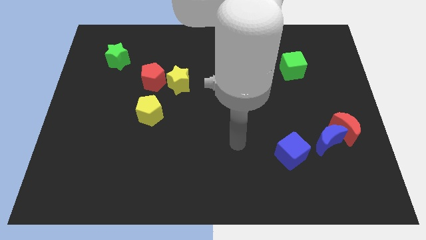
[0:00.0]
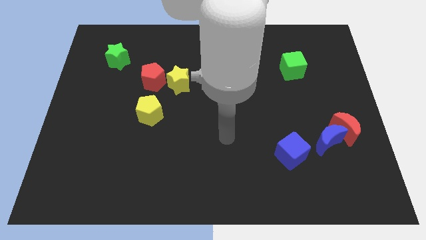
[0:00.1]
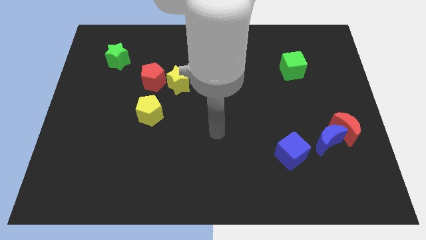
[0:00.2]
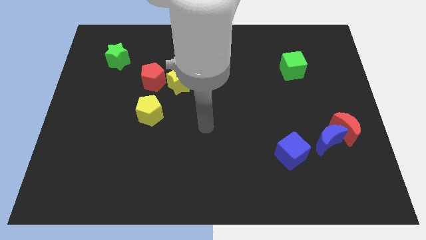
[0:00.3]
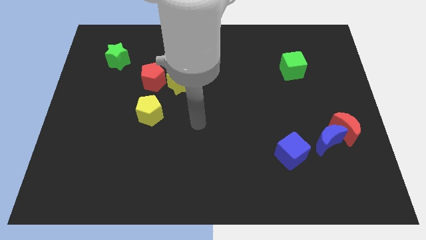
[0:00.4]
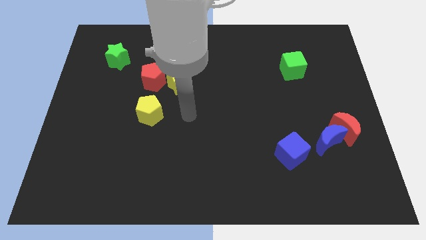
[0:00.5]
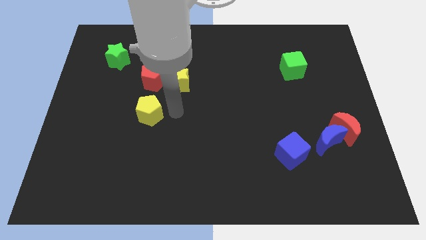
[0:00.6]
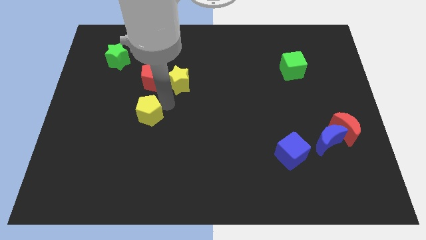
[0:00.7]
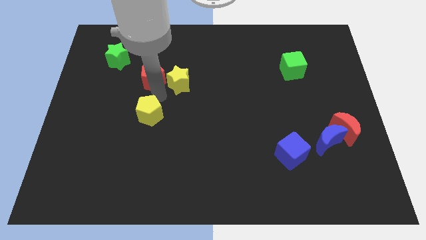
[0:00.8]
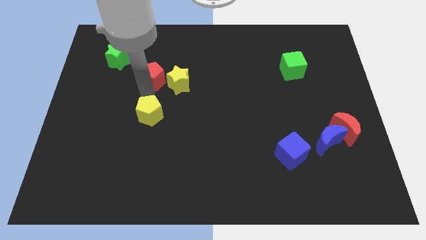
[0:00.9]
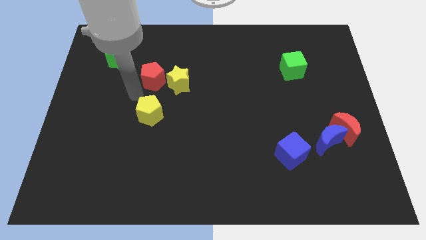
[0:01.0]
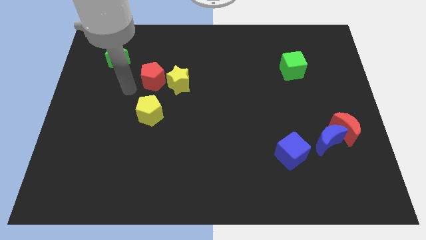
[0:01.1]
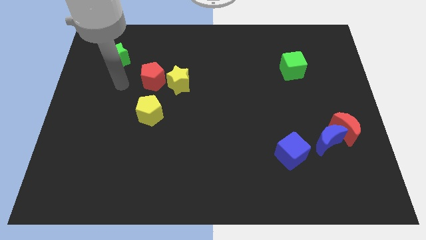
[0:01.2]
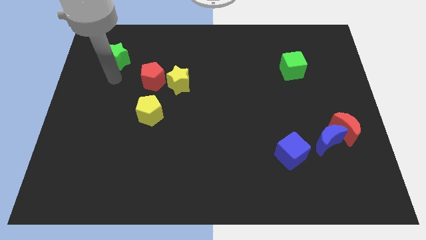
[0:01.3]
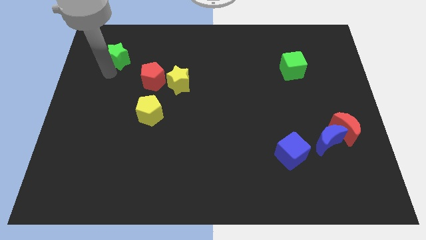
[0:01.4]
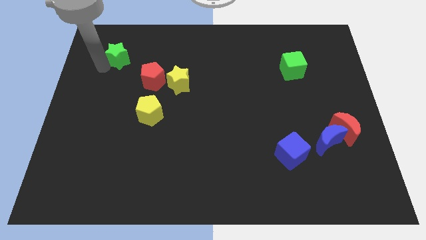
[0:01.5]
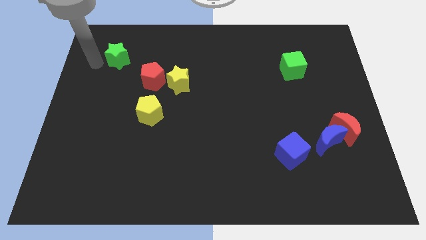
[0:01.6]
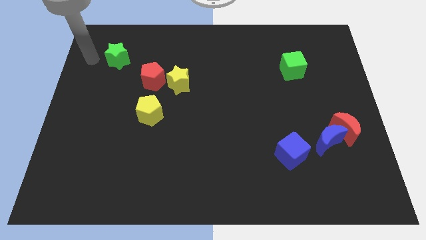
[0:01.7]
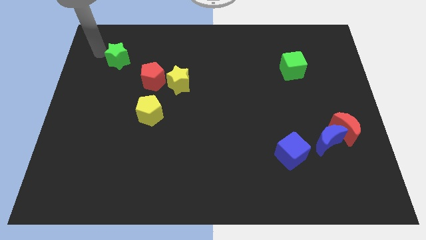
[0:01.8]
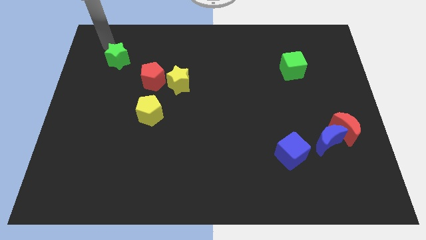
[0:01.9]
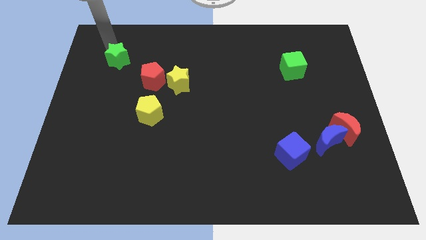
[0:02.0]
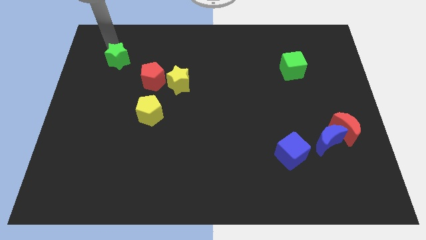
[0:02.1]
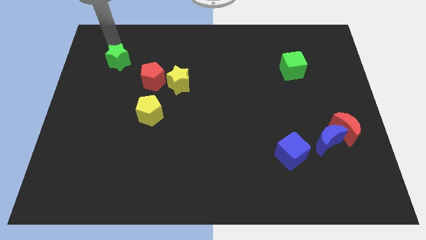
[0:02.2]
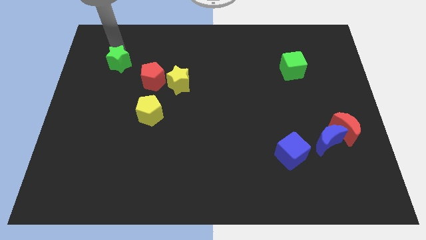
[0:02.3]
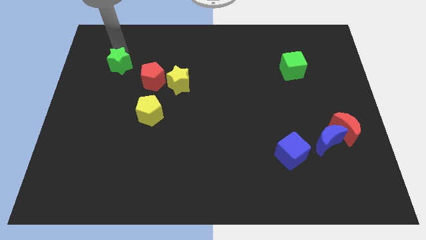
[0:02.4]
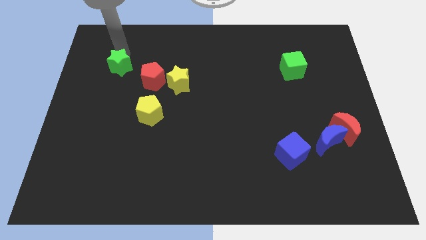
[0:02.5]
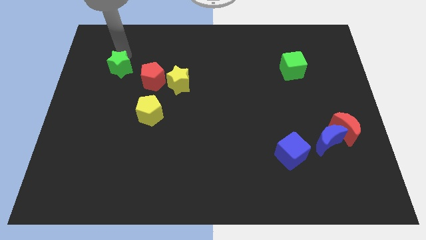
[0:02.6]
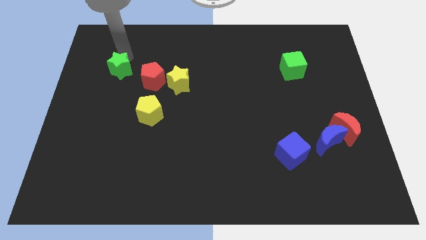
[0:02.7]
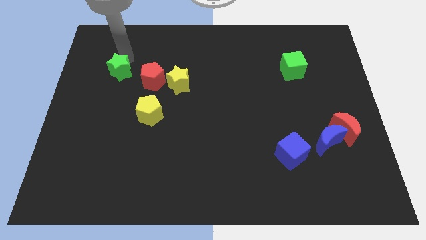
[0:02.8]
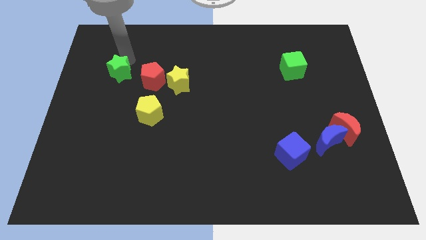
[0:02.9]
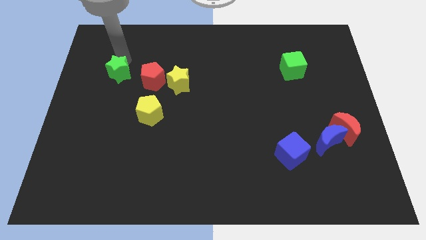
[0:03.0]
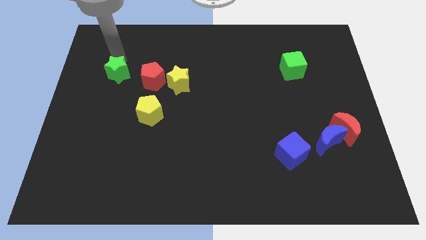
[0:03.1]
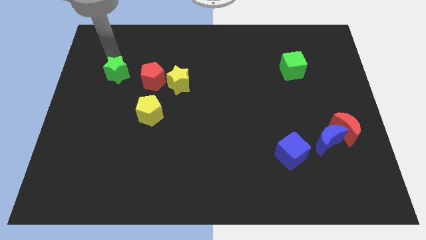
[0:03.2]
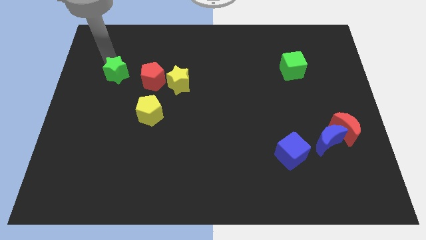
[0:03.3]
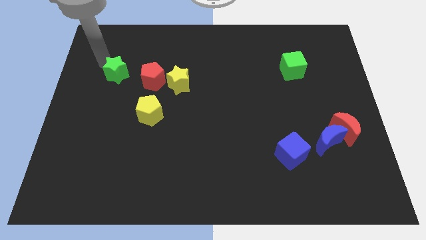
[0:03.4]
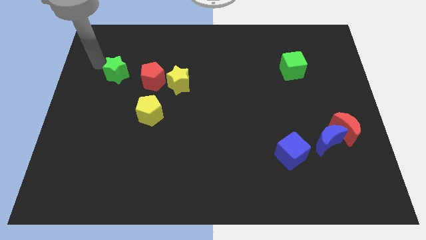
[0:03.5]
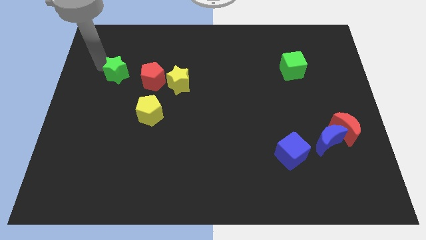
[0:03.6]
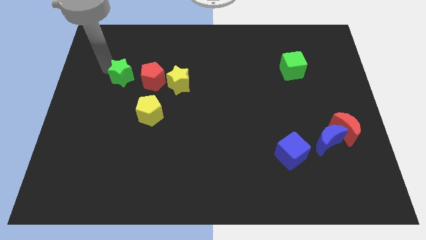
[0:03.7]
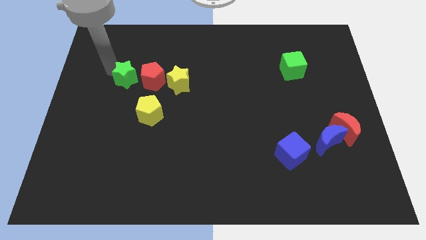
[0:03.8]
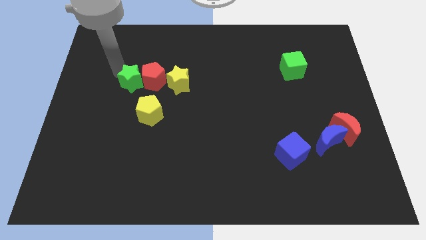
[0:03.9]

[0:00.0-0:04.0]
push the green star a little bit diagonally downwards and to the right

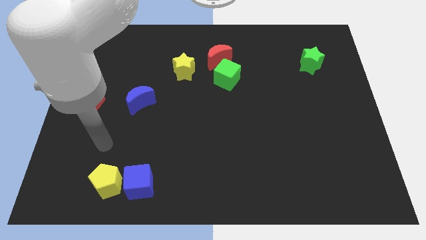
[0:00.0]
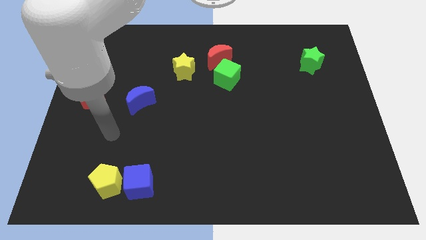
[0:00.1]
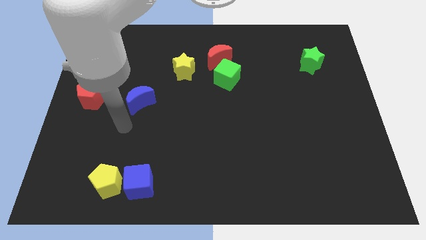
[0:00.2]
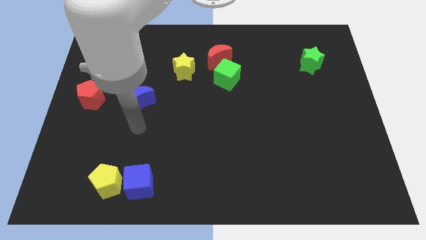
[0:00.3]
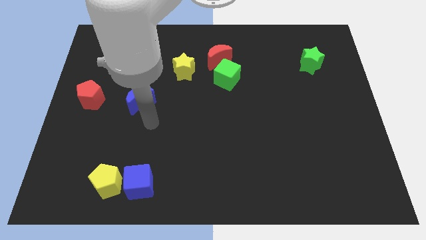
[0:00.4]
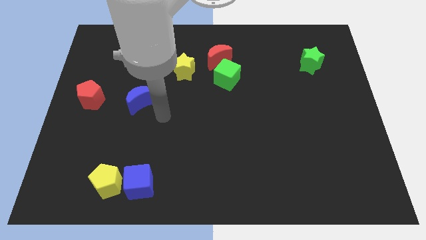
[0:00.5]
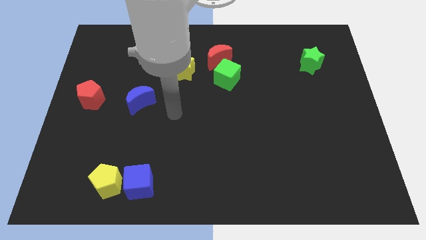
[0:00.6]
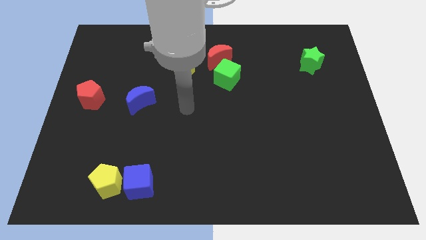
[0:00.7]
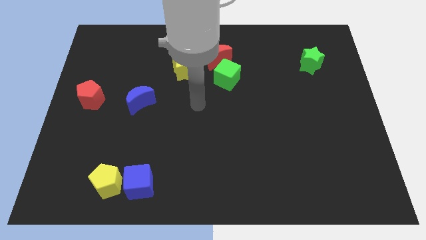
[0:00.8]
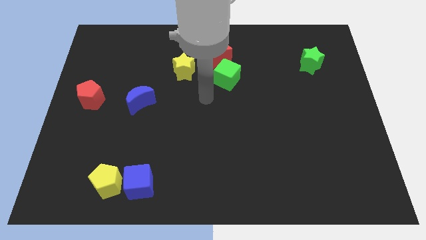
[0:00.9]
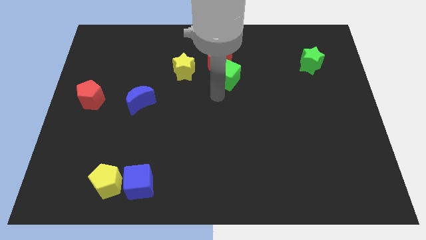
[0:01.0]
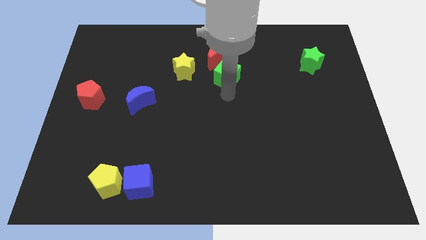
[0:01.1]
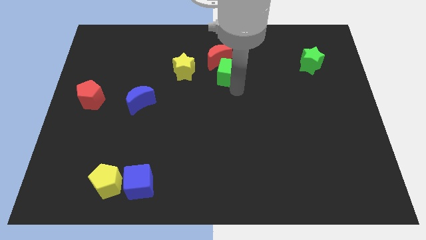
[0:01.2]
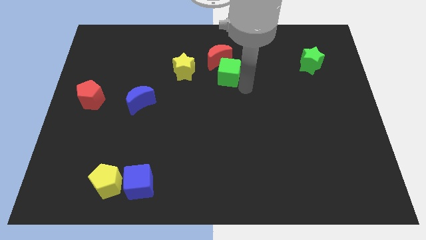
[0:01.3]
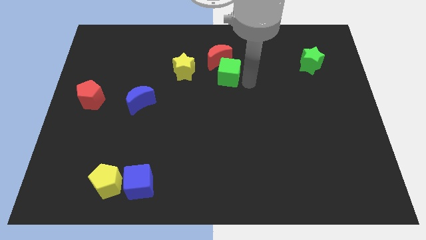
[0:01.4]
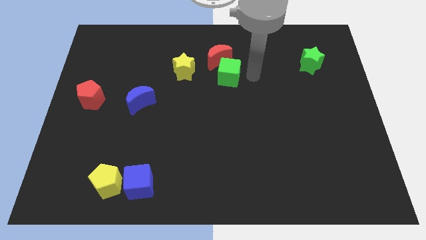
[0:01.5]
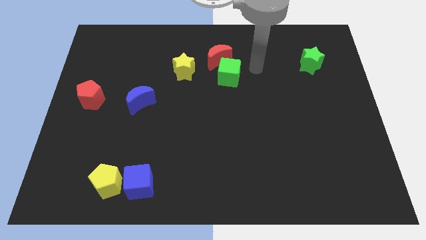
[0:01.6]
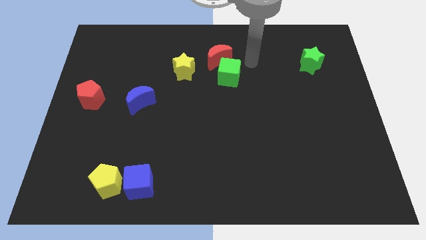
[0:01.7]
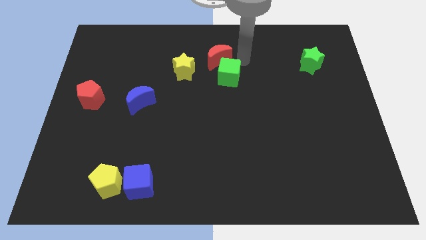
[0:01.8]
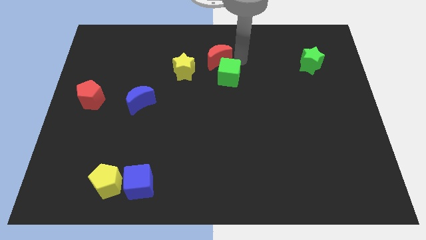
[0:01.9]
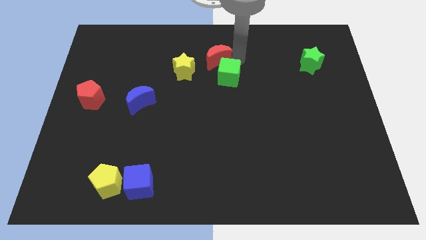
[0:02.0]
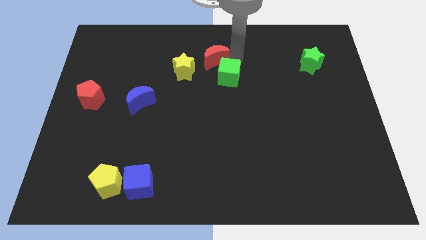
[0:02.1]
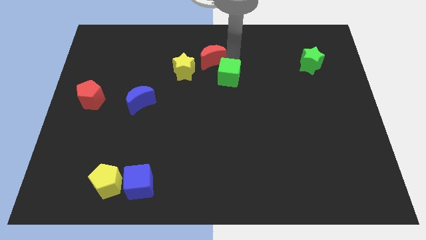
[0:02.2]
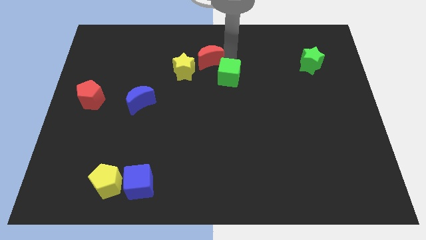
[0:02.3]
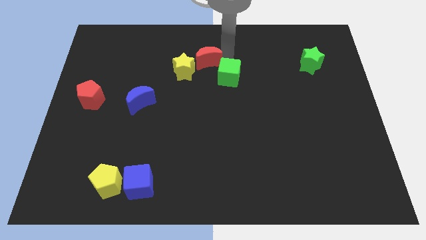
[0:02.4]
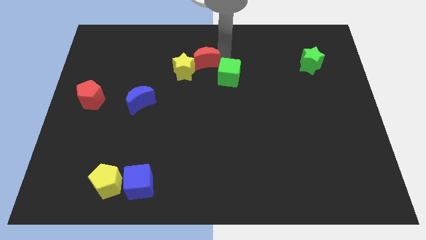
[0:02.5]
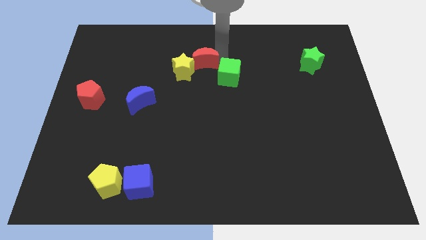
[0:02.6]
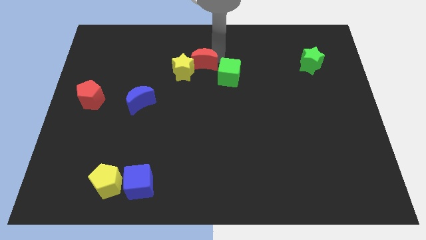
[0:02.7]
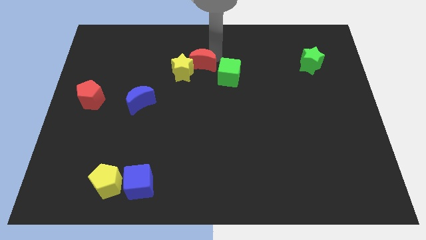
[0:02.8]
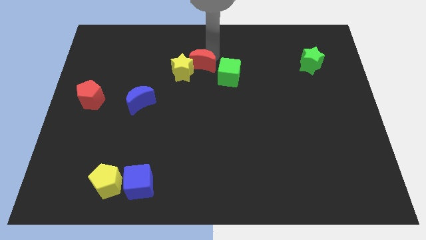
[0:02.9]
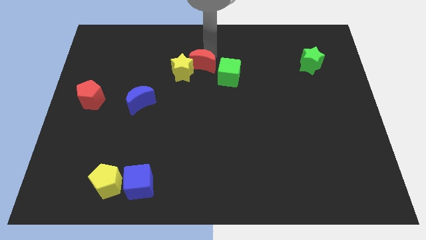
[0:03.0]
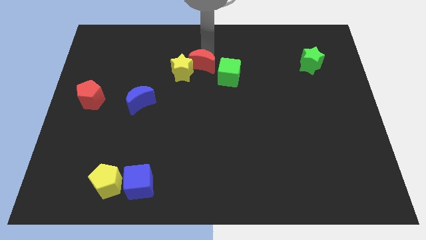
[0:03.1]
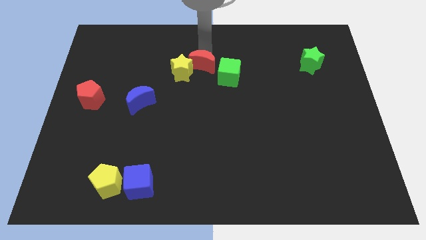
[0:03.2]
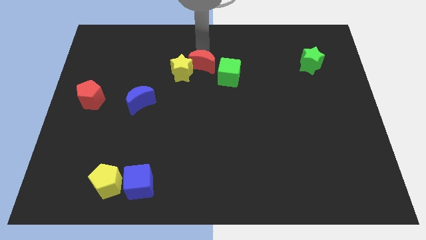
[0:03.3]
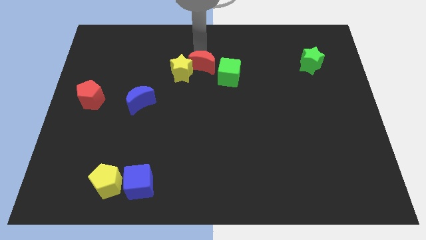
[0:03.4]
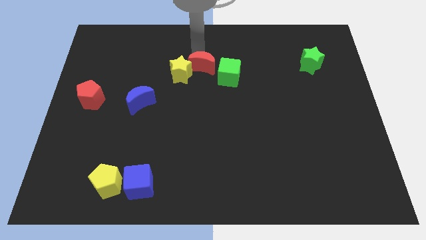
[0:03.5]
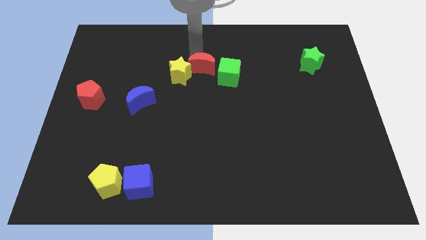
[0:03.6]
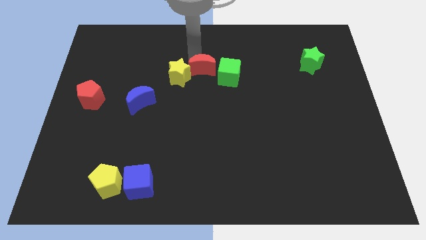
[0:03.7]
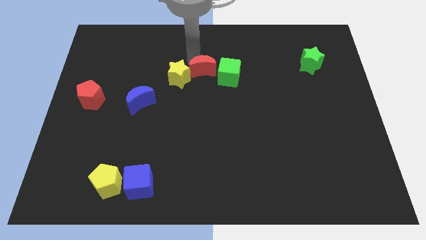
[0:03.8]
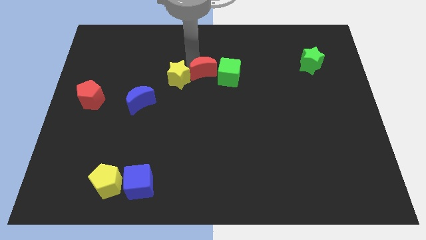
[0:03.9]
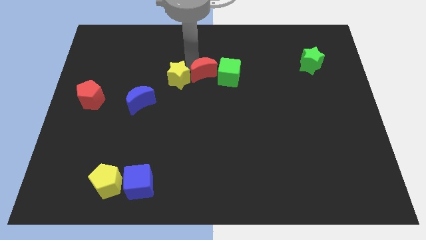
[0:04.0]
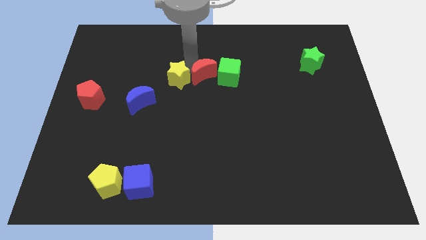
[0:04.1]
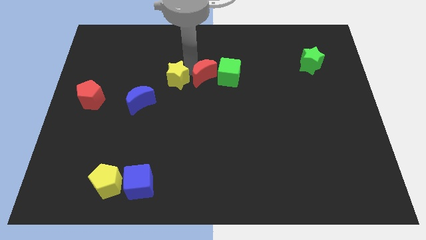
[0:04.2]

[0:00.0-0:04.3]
move the red moon somewhat down and to the left
